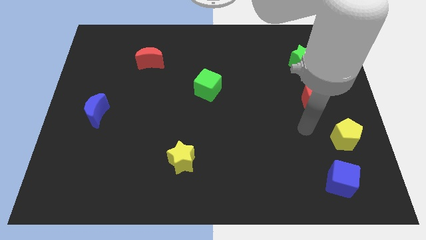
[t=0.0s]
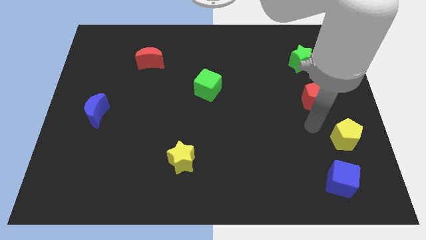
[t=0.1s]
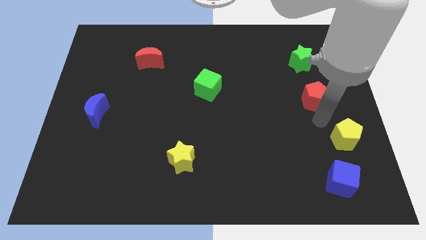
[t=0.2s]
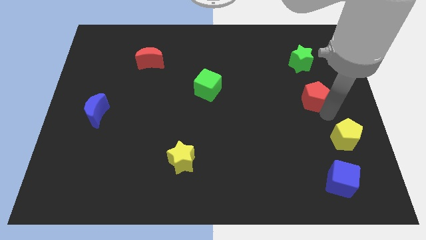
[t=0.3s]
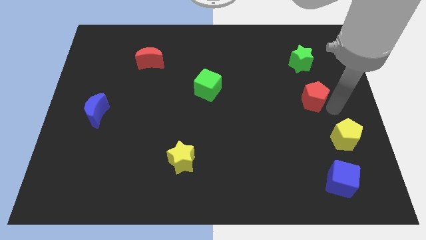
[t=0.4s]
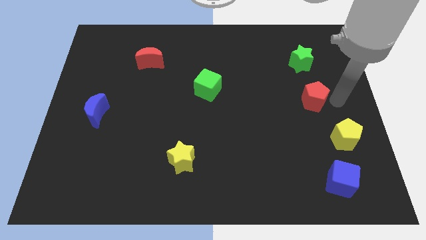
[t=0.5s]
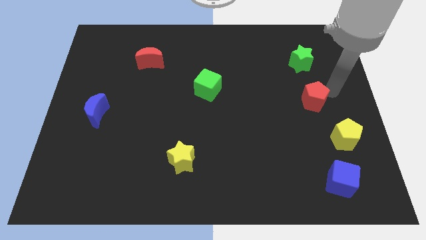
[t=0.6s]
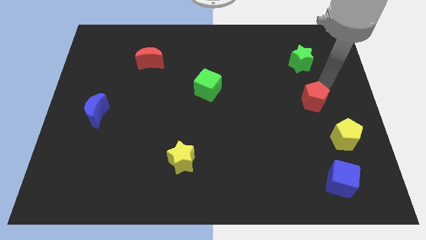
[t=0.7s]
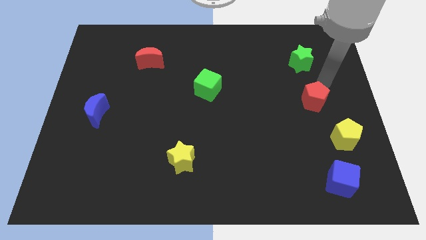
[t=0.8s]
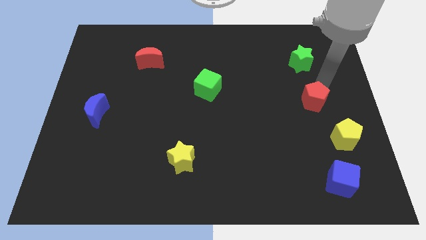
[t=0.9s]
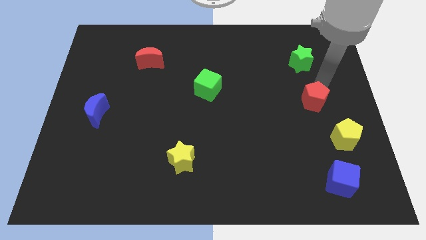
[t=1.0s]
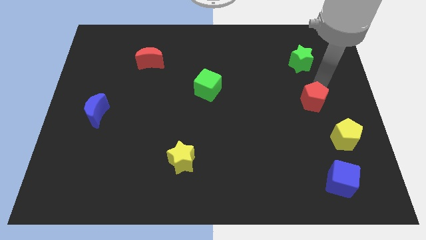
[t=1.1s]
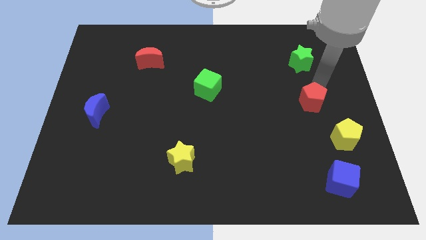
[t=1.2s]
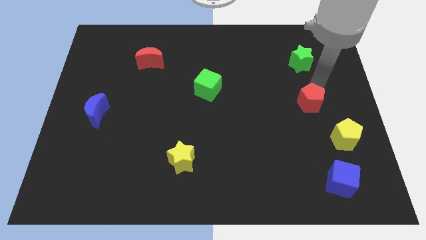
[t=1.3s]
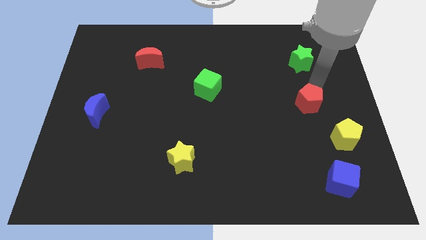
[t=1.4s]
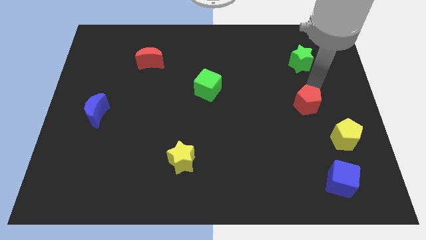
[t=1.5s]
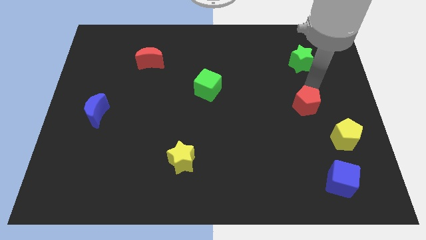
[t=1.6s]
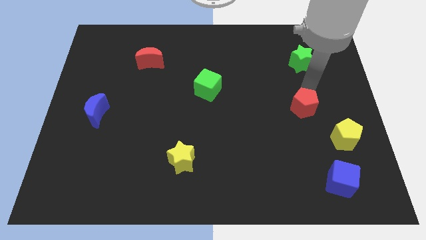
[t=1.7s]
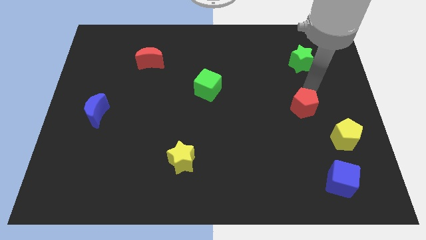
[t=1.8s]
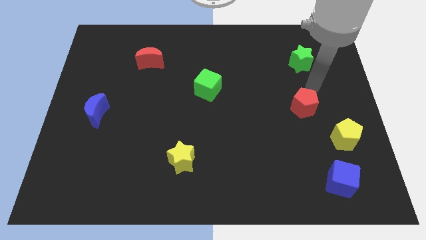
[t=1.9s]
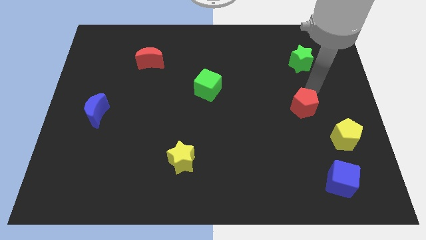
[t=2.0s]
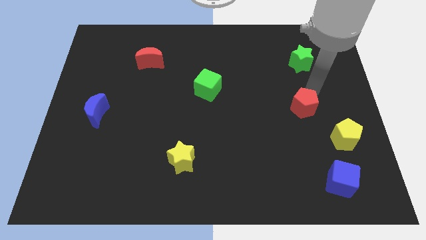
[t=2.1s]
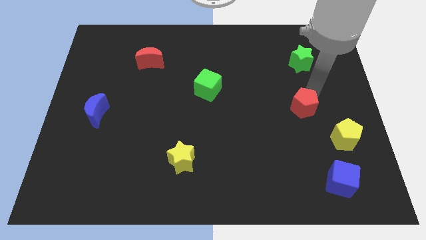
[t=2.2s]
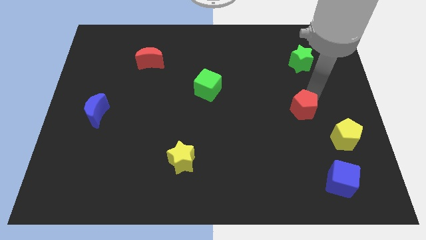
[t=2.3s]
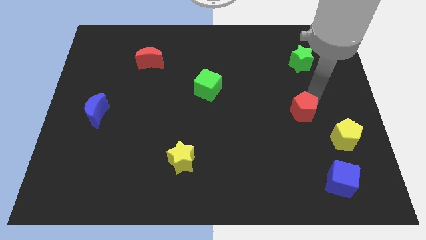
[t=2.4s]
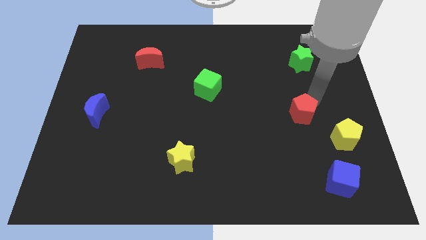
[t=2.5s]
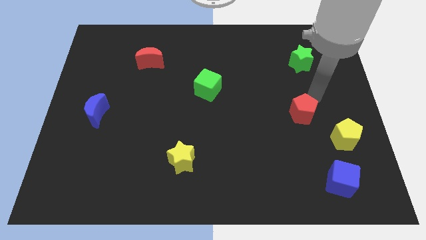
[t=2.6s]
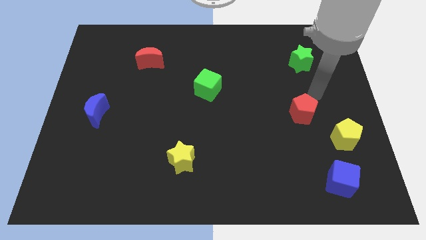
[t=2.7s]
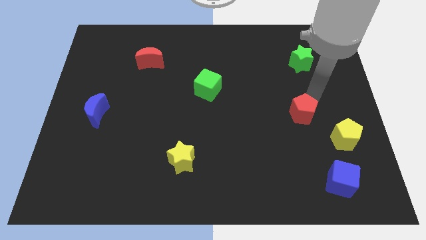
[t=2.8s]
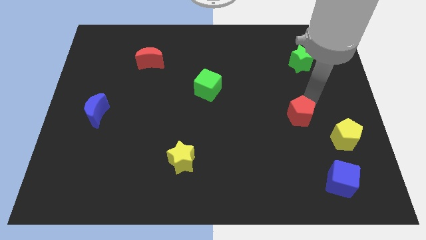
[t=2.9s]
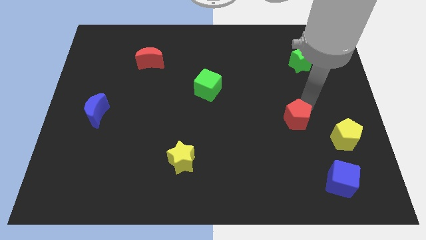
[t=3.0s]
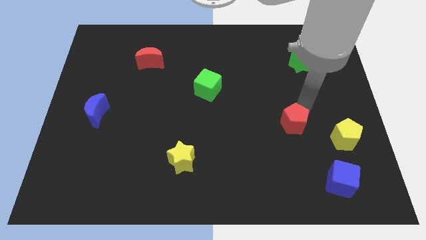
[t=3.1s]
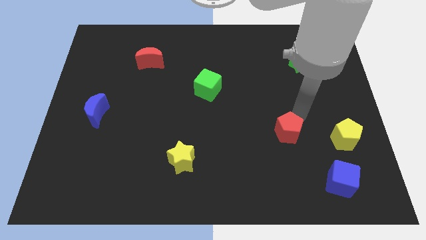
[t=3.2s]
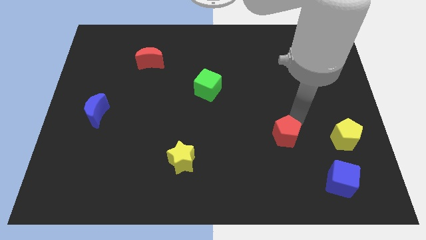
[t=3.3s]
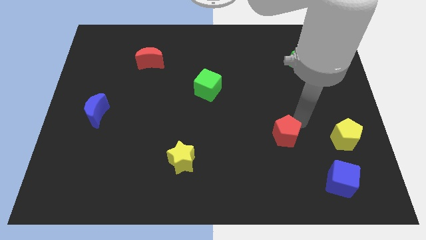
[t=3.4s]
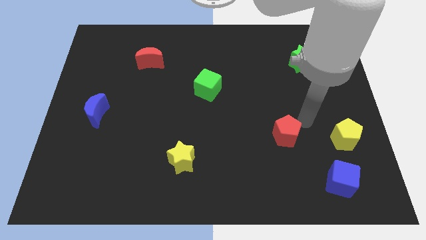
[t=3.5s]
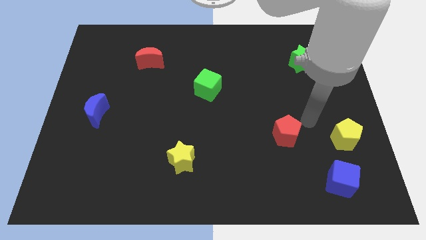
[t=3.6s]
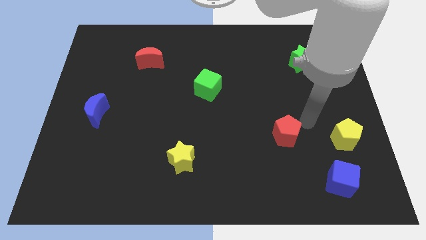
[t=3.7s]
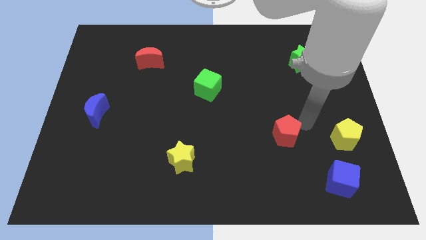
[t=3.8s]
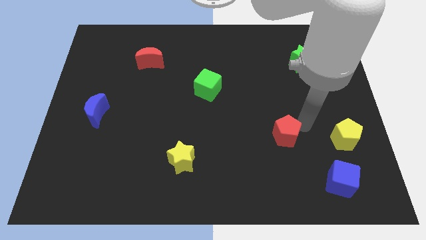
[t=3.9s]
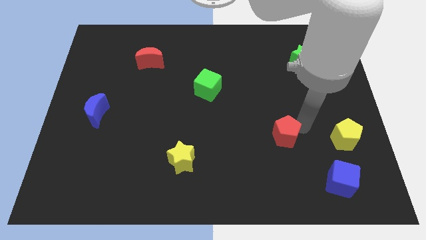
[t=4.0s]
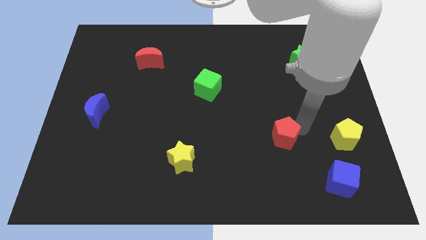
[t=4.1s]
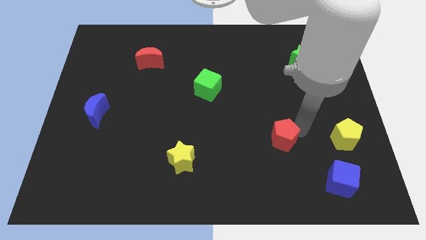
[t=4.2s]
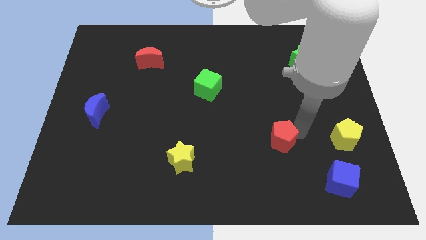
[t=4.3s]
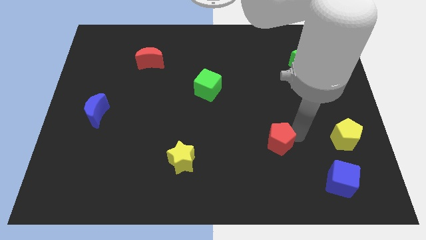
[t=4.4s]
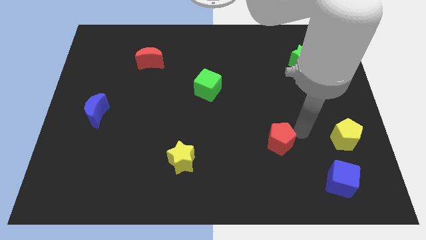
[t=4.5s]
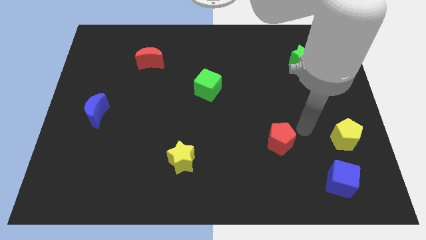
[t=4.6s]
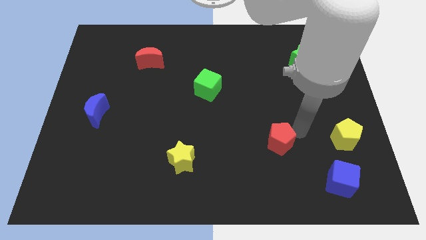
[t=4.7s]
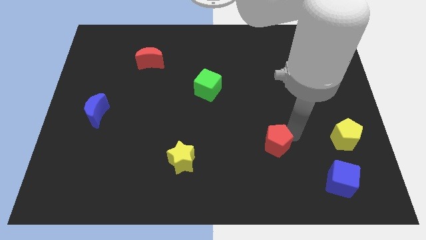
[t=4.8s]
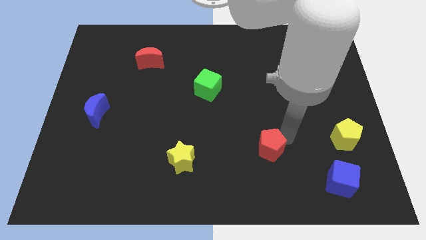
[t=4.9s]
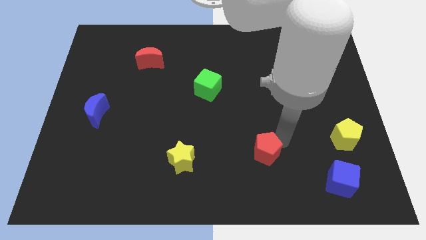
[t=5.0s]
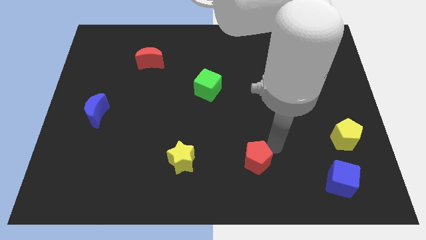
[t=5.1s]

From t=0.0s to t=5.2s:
move the red pentagon just right of the yellow star

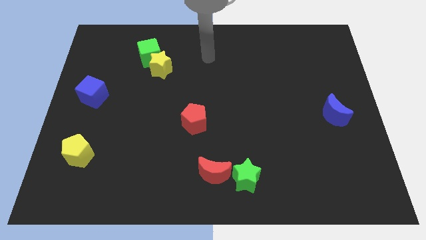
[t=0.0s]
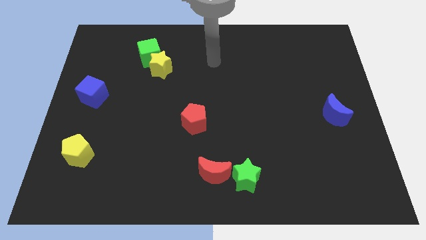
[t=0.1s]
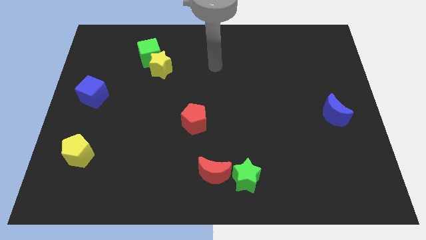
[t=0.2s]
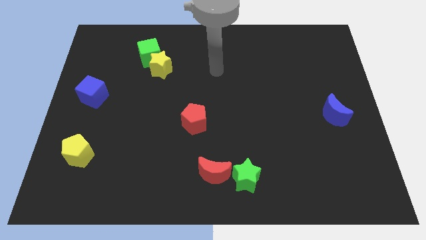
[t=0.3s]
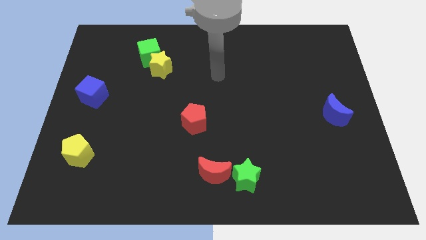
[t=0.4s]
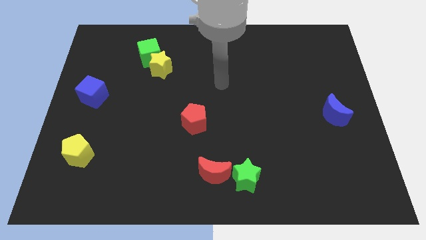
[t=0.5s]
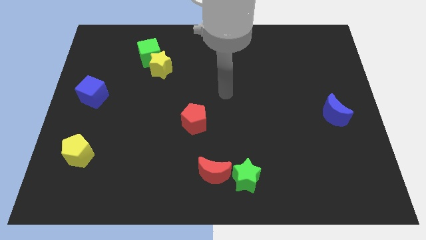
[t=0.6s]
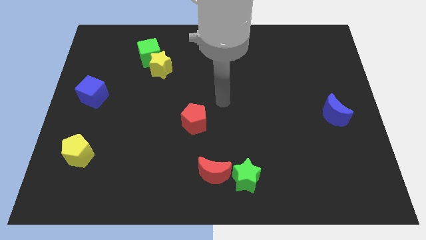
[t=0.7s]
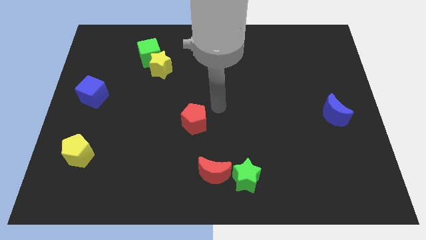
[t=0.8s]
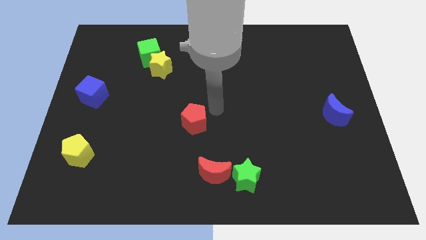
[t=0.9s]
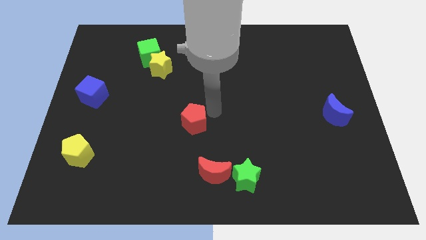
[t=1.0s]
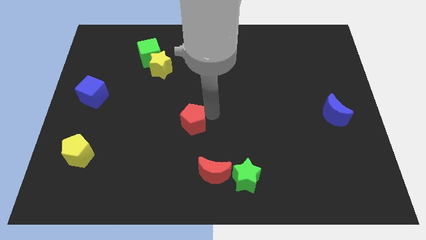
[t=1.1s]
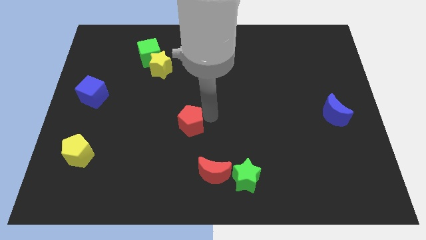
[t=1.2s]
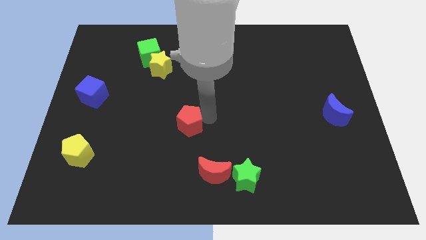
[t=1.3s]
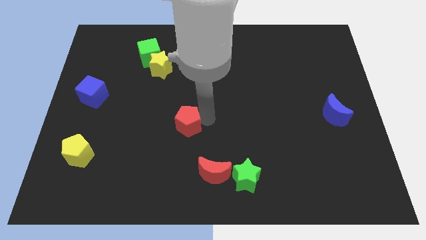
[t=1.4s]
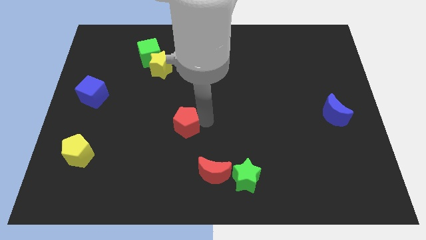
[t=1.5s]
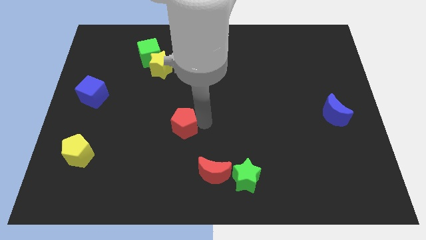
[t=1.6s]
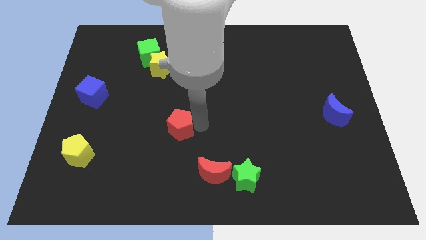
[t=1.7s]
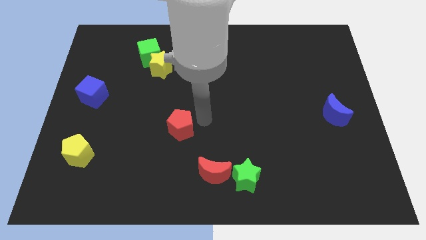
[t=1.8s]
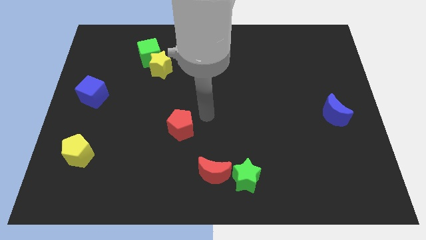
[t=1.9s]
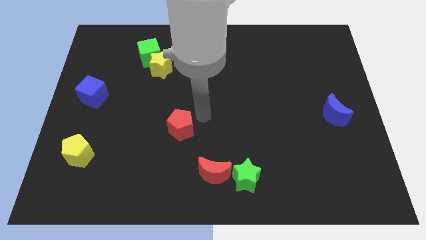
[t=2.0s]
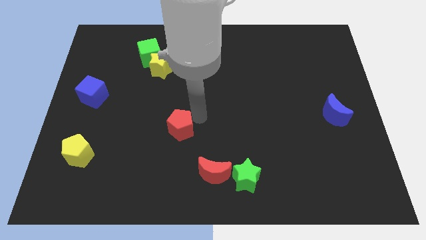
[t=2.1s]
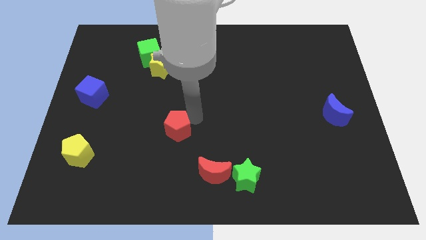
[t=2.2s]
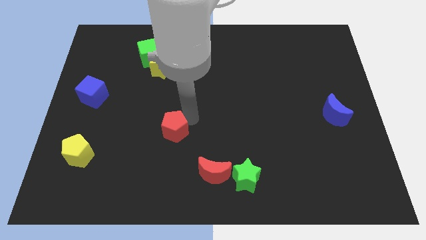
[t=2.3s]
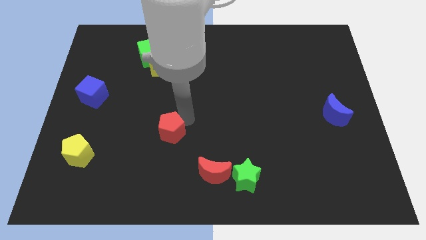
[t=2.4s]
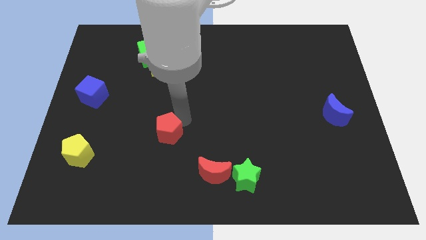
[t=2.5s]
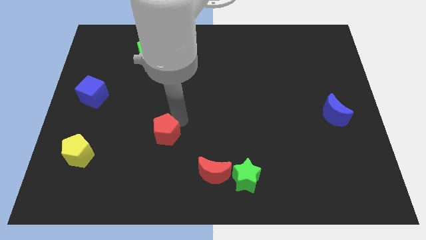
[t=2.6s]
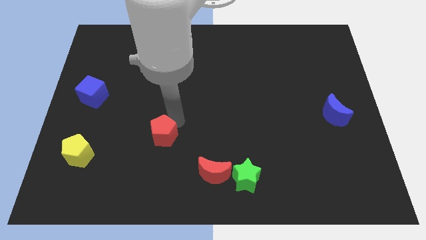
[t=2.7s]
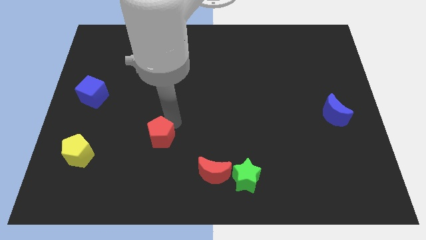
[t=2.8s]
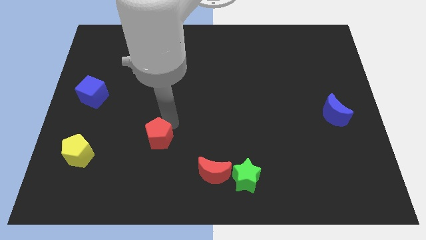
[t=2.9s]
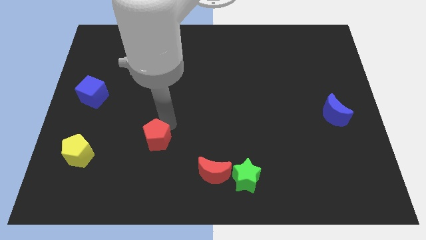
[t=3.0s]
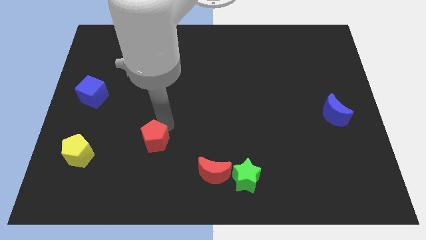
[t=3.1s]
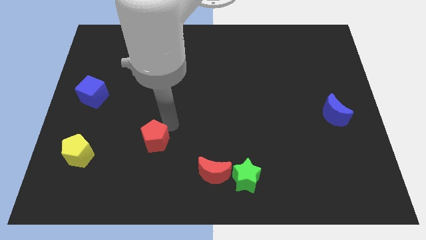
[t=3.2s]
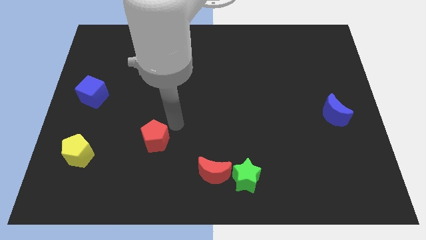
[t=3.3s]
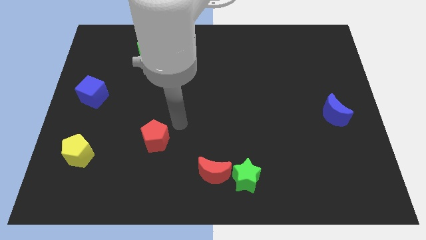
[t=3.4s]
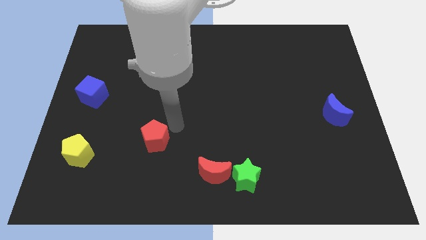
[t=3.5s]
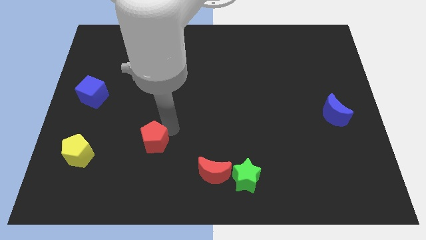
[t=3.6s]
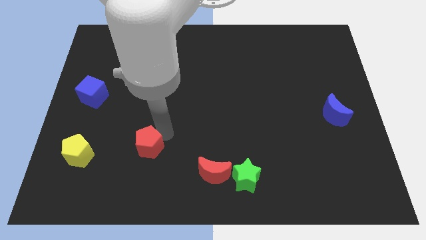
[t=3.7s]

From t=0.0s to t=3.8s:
push the red pentagon to the right of the yellow pentagon
